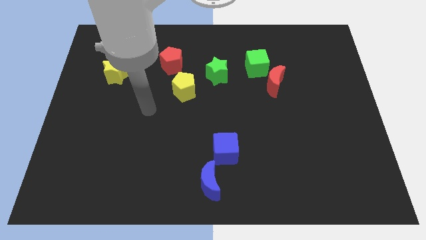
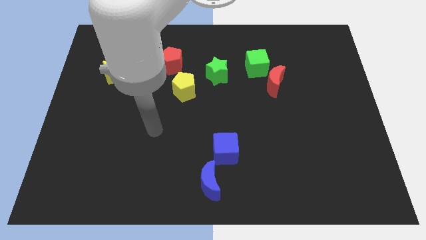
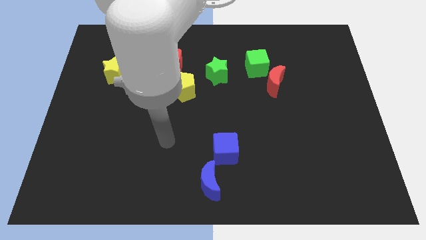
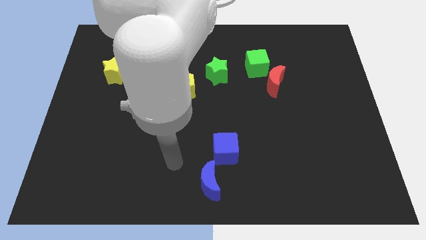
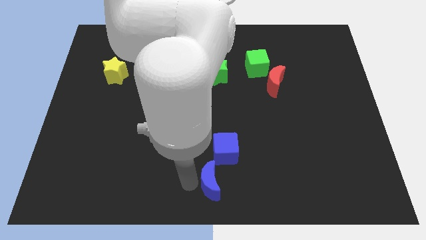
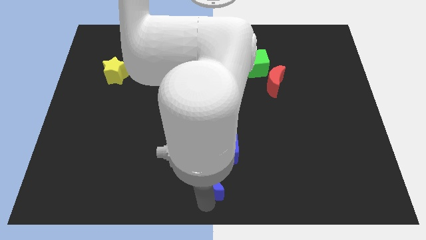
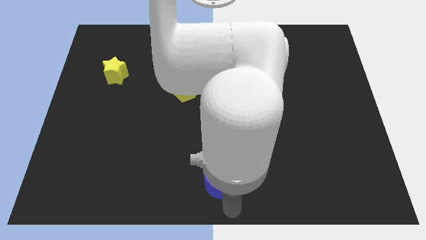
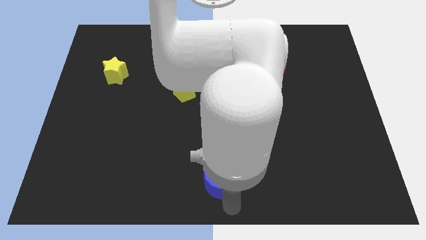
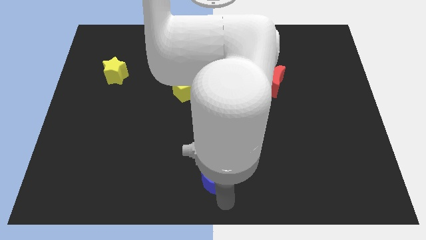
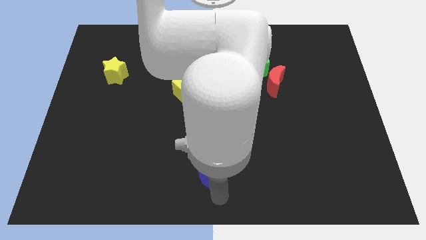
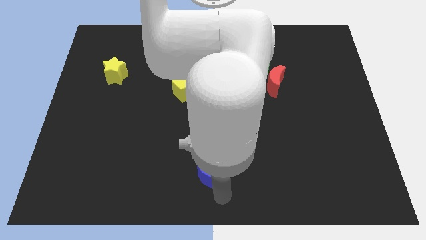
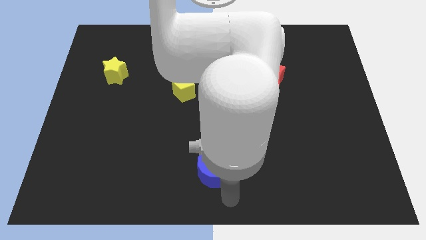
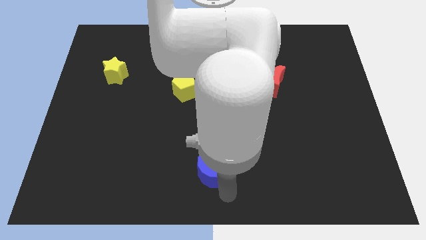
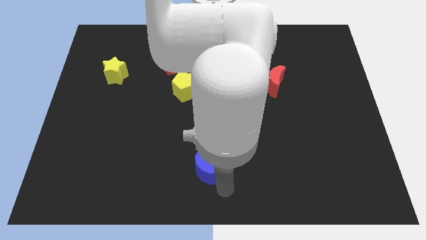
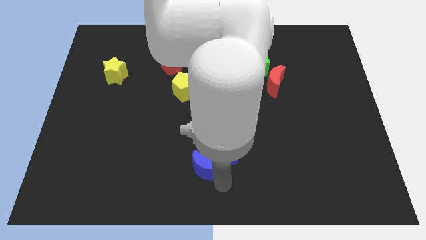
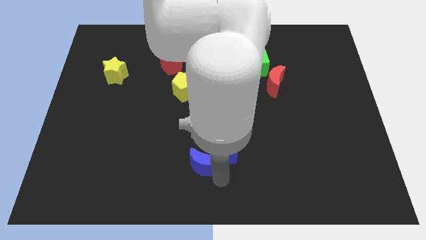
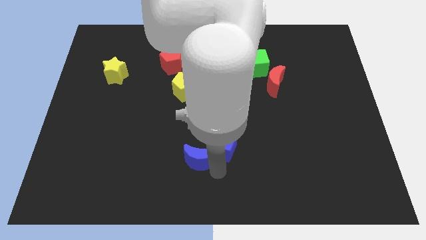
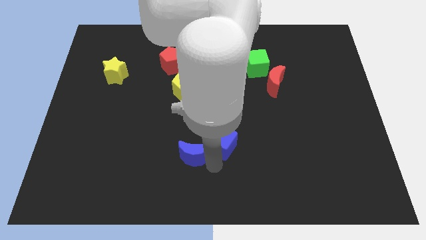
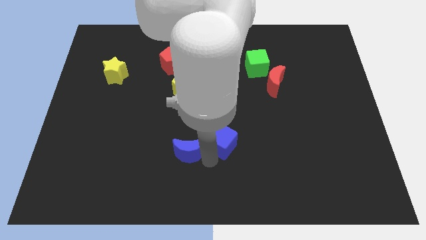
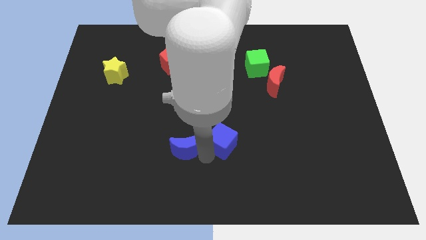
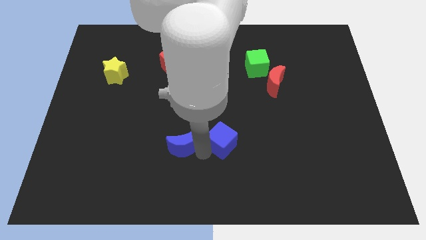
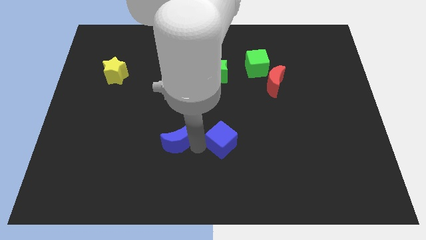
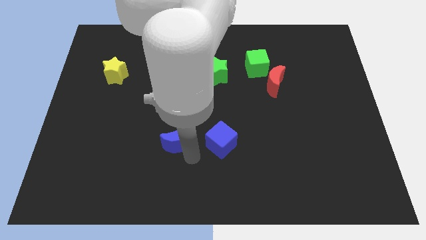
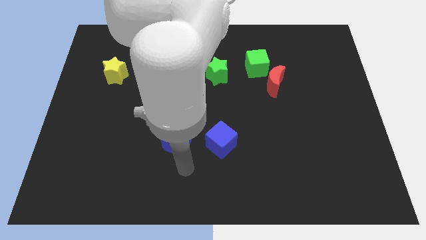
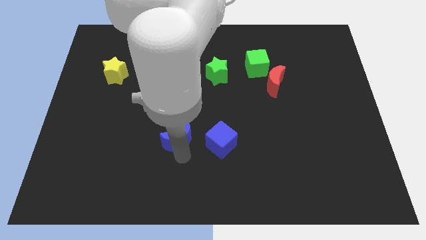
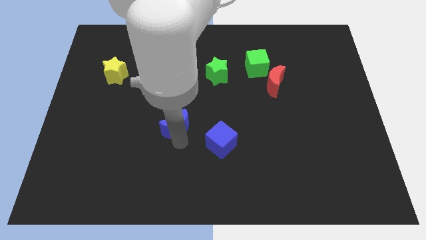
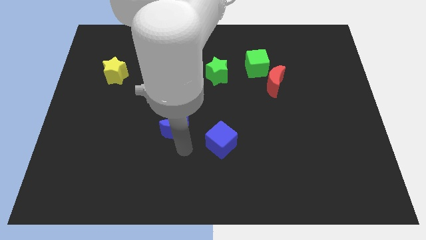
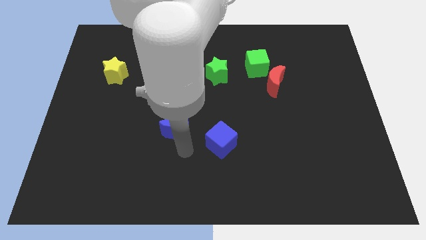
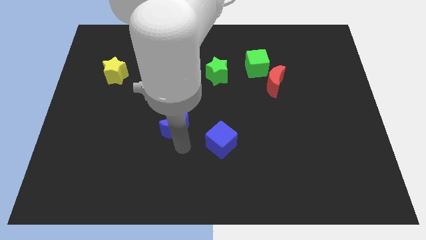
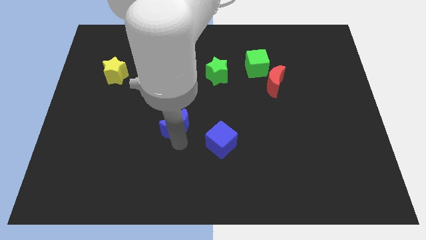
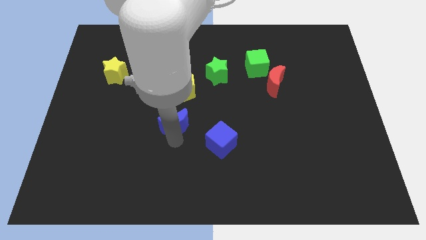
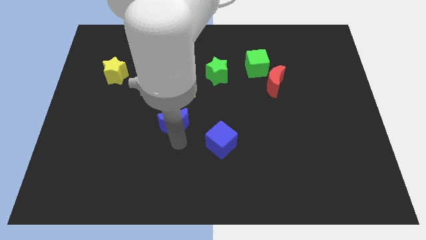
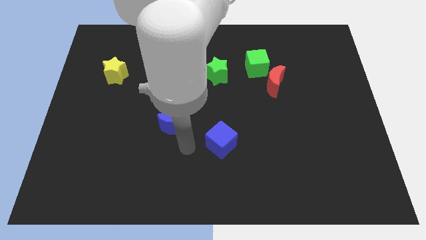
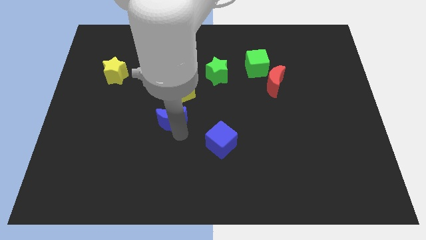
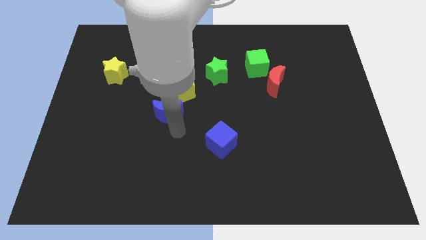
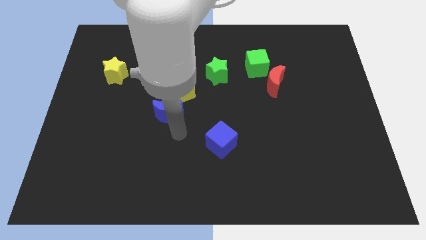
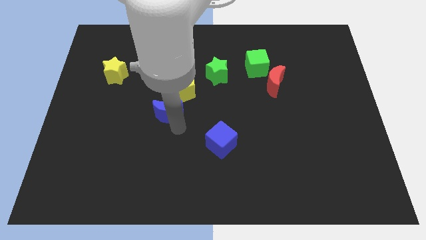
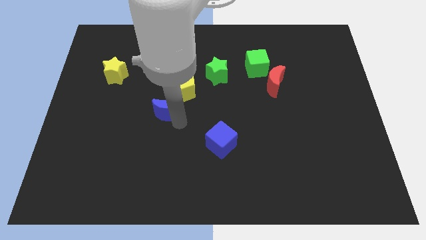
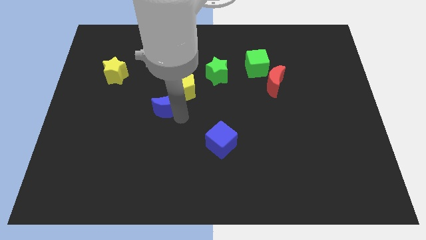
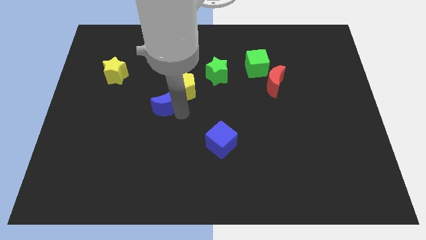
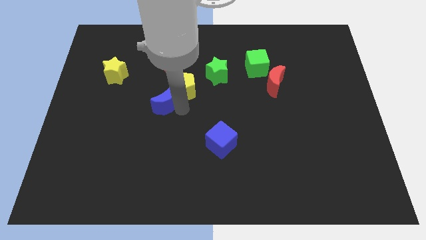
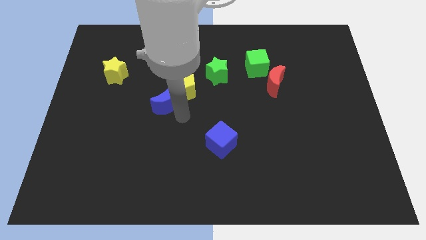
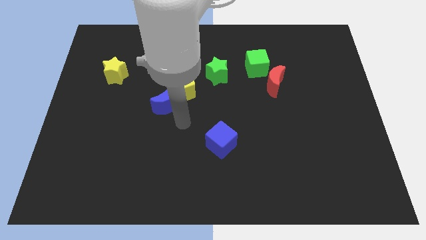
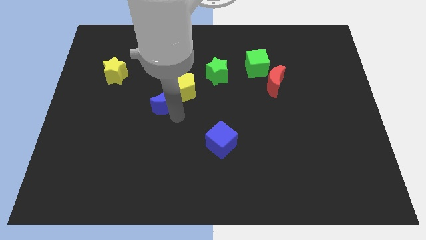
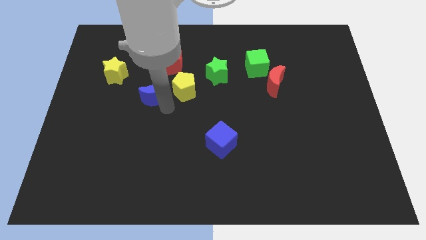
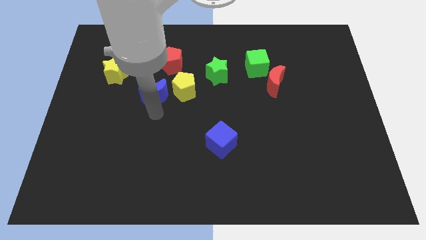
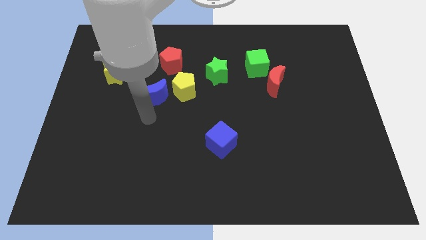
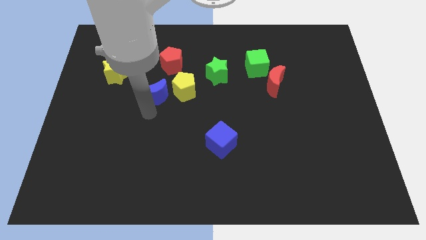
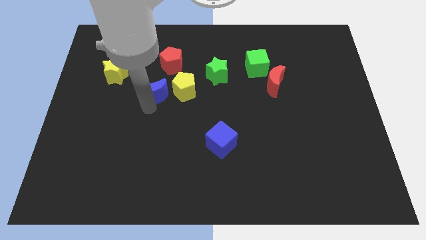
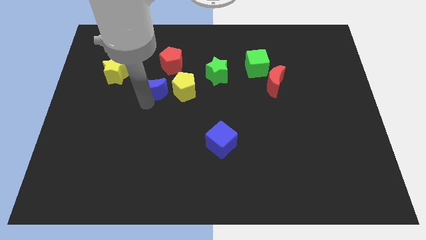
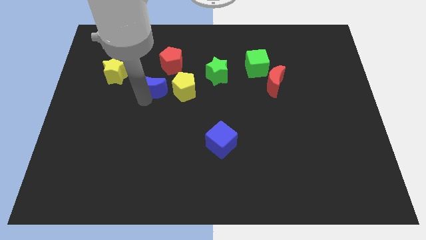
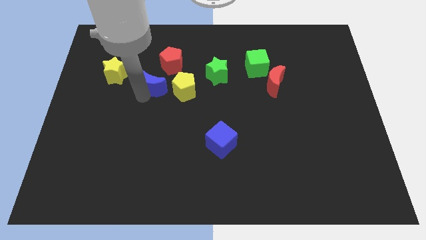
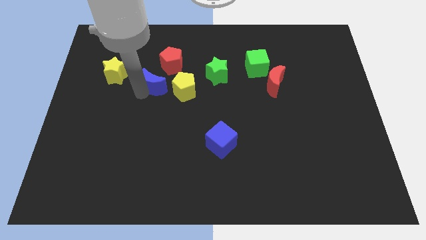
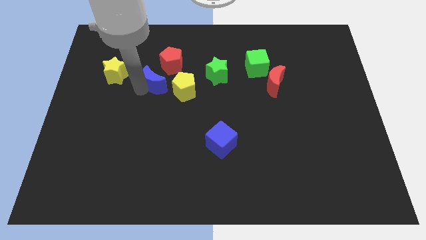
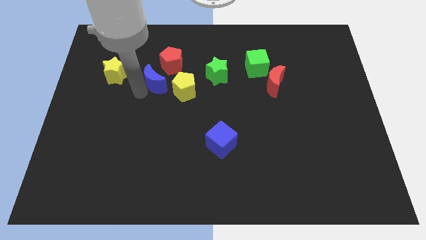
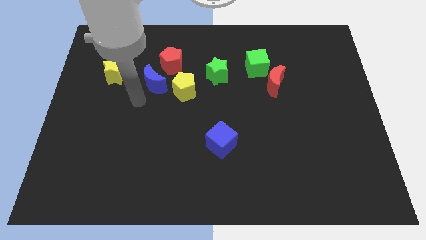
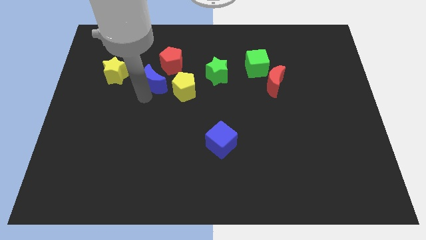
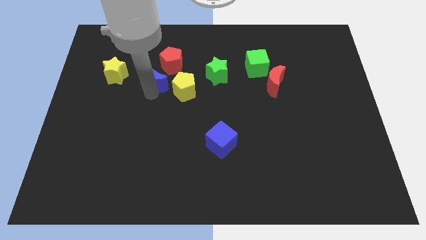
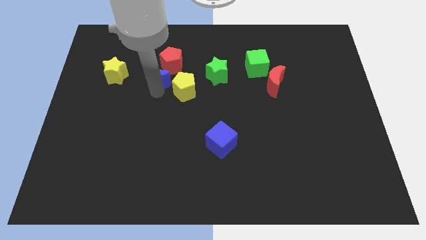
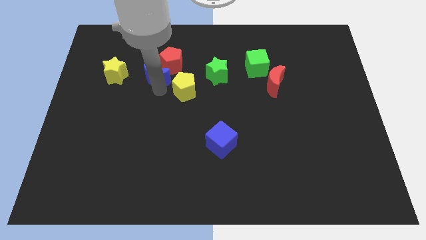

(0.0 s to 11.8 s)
push the blue moon next to the red pentagon
